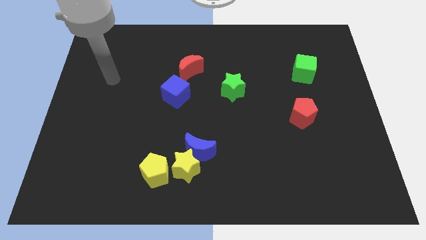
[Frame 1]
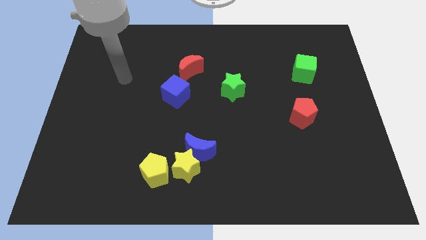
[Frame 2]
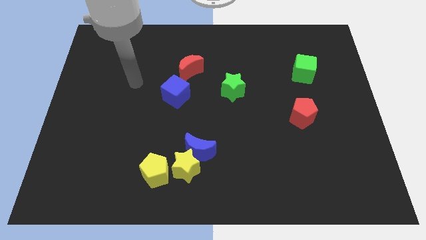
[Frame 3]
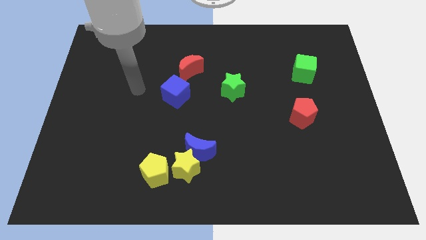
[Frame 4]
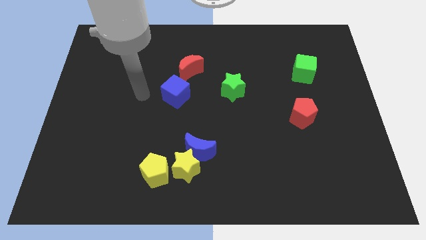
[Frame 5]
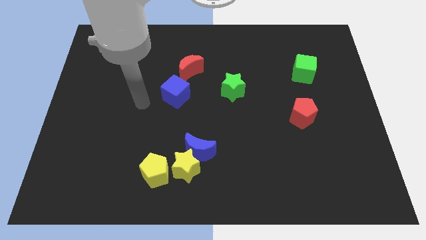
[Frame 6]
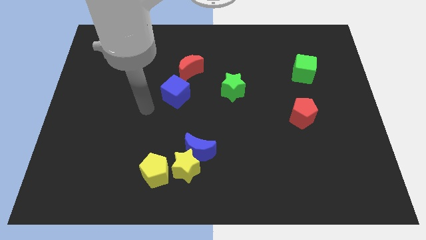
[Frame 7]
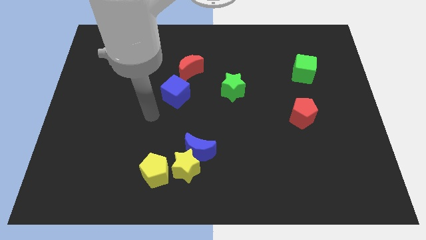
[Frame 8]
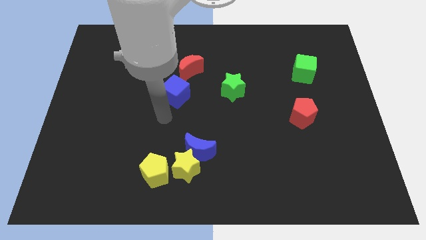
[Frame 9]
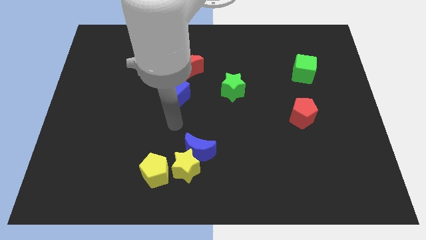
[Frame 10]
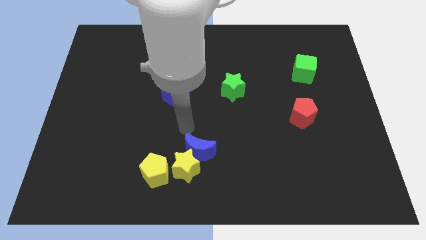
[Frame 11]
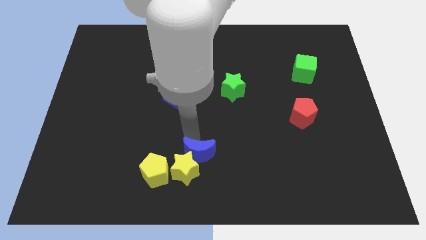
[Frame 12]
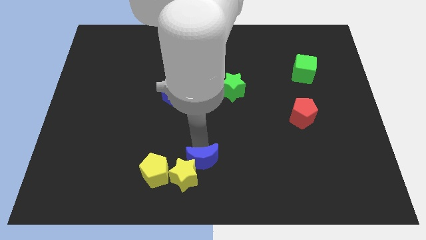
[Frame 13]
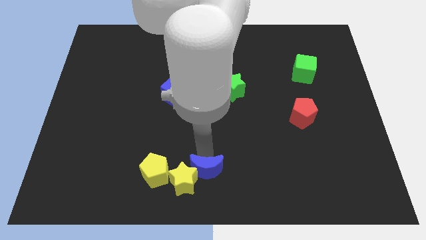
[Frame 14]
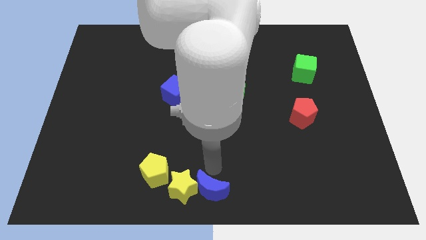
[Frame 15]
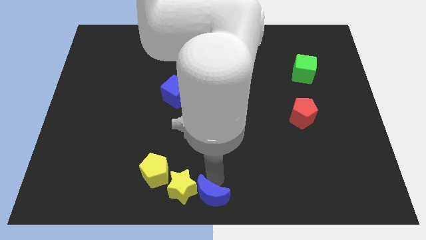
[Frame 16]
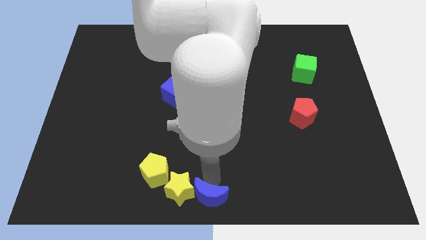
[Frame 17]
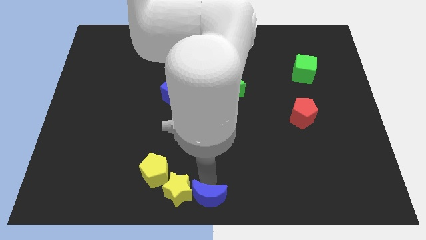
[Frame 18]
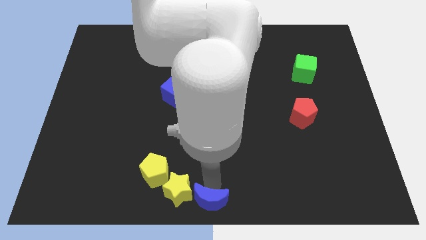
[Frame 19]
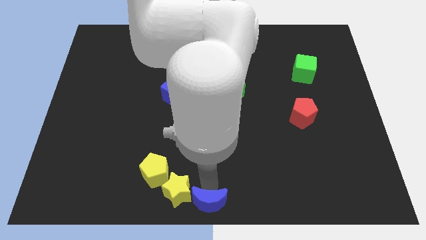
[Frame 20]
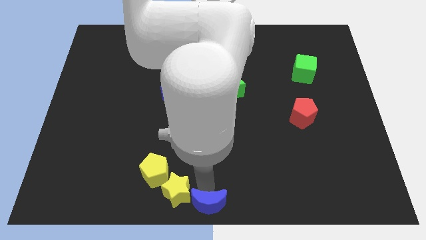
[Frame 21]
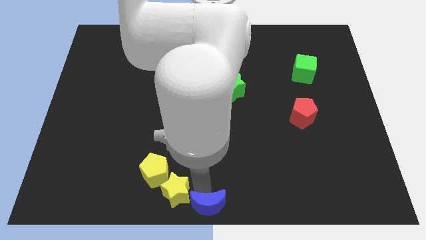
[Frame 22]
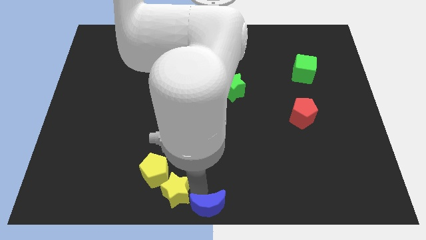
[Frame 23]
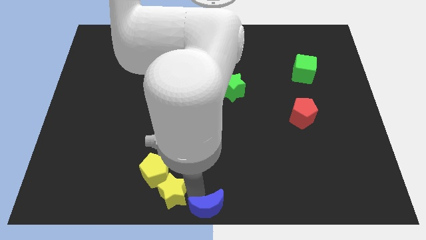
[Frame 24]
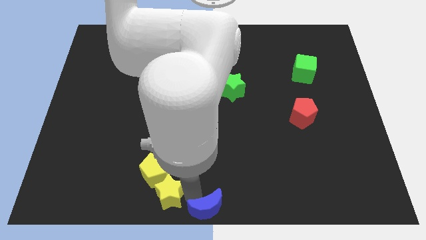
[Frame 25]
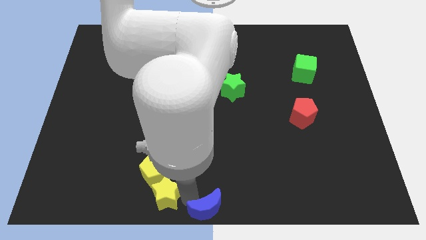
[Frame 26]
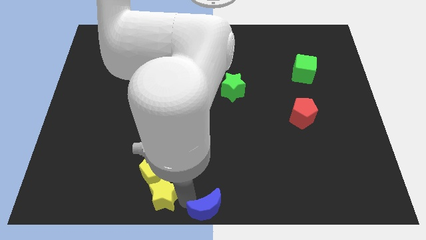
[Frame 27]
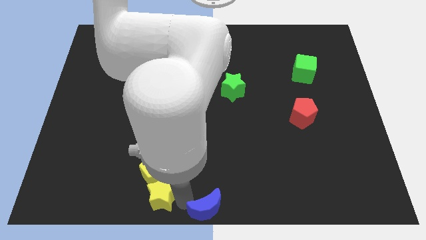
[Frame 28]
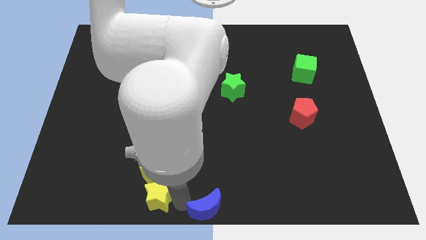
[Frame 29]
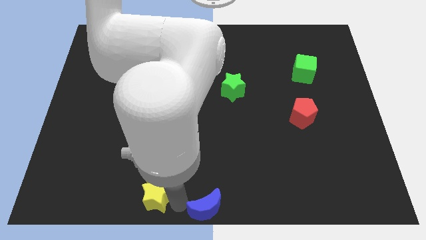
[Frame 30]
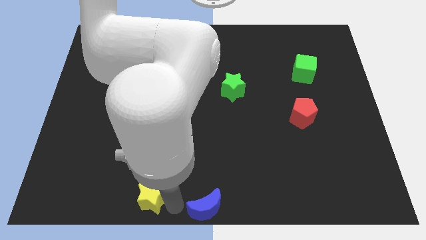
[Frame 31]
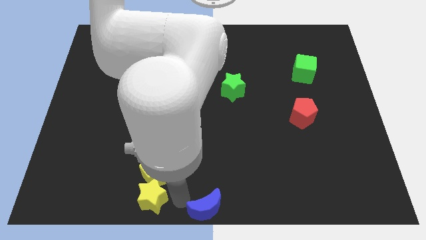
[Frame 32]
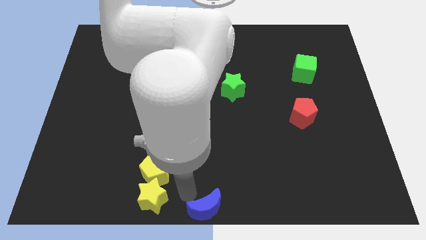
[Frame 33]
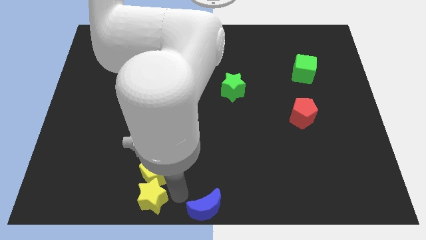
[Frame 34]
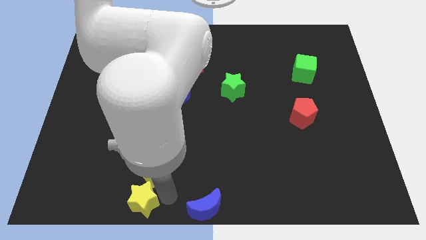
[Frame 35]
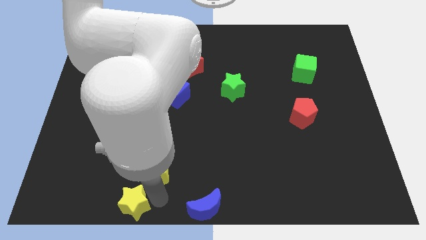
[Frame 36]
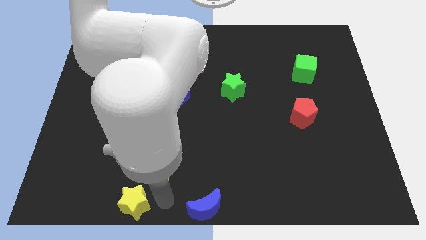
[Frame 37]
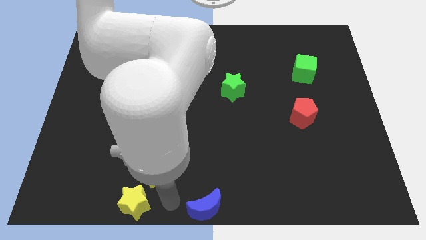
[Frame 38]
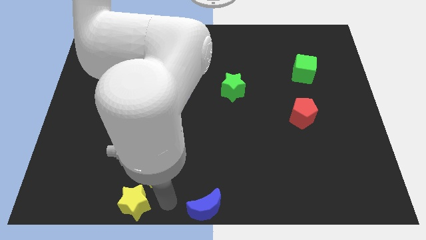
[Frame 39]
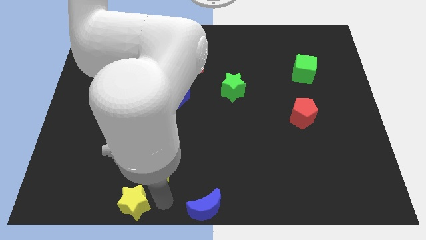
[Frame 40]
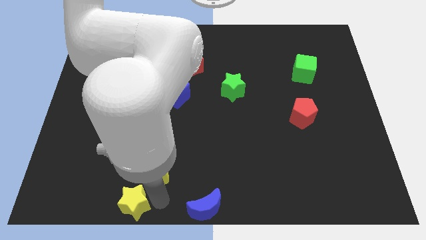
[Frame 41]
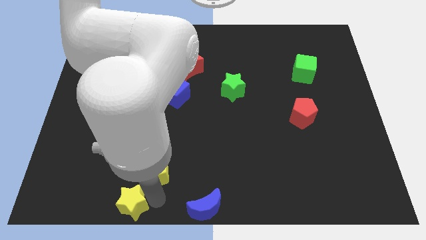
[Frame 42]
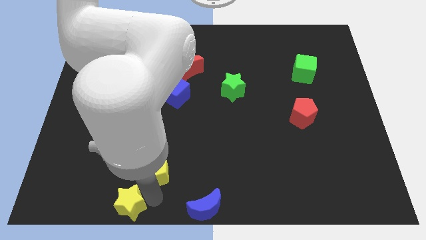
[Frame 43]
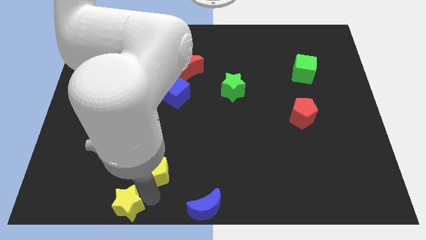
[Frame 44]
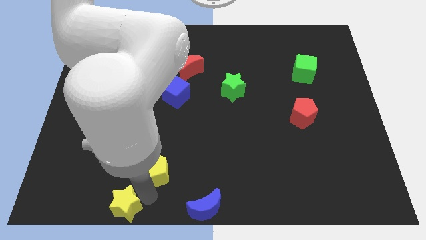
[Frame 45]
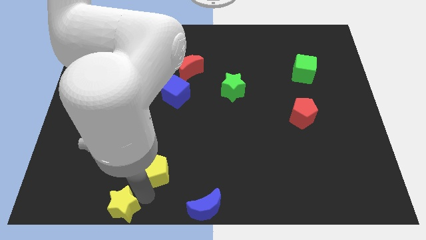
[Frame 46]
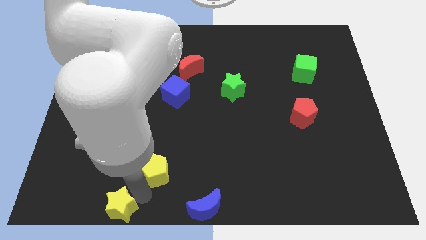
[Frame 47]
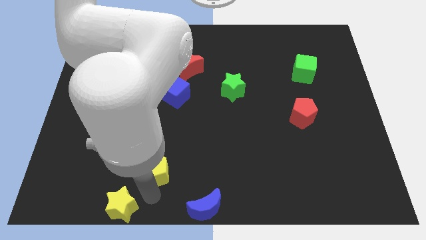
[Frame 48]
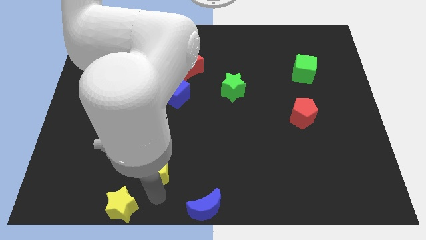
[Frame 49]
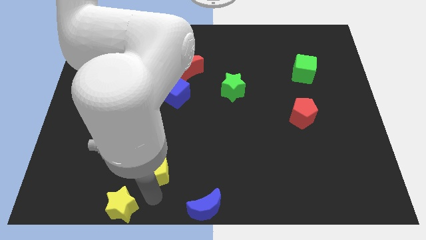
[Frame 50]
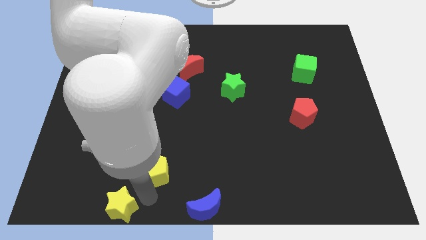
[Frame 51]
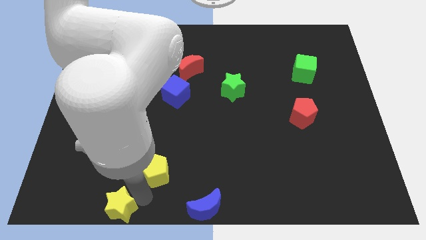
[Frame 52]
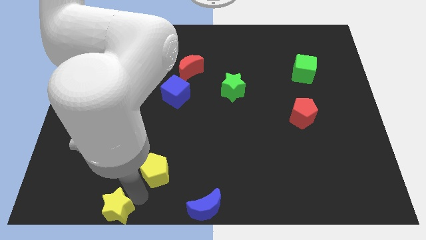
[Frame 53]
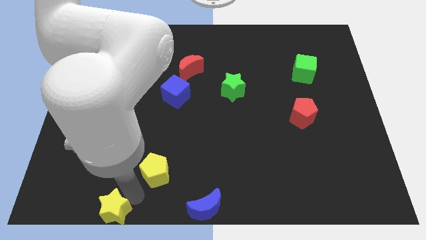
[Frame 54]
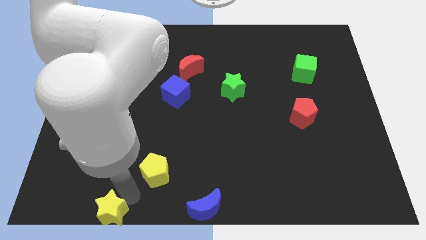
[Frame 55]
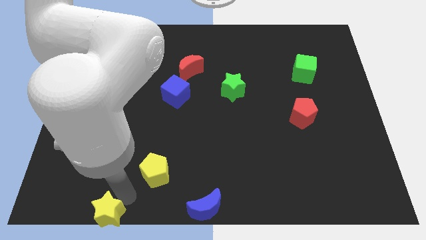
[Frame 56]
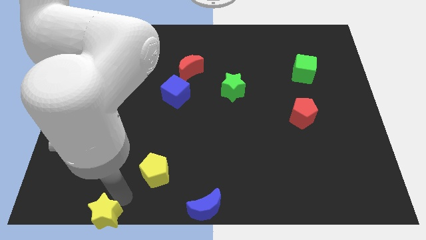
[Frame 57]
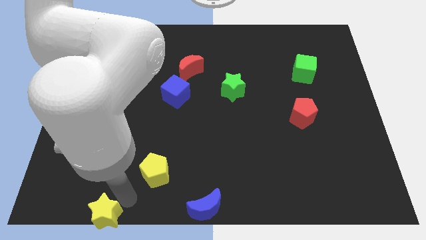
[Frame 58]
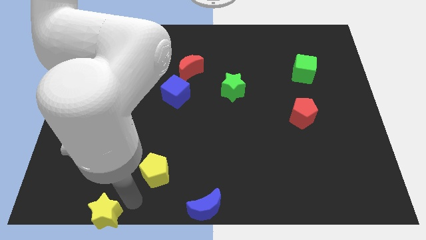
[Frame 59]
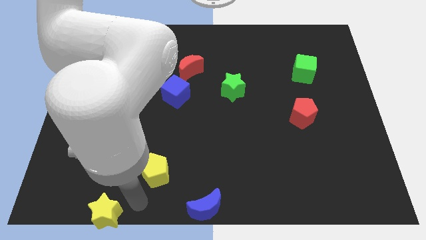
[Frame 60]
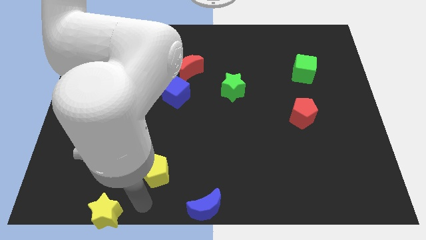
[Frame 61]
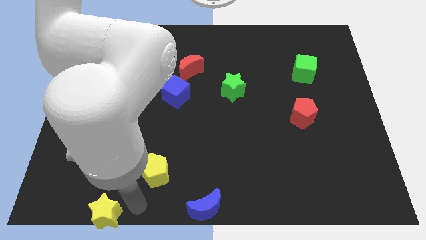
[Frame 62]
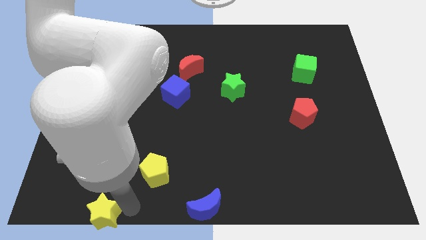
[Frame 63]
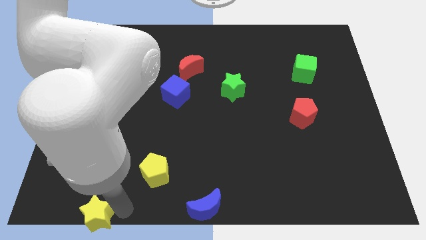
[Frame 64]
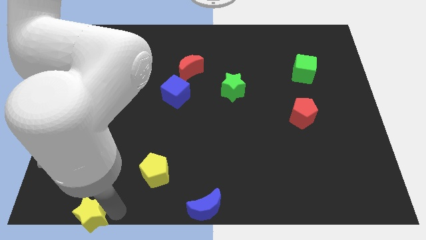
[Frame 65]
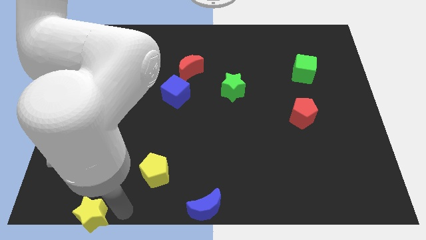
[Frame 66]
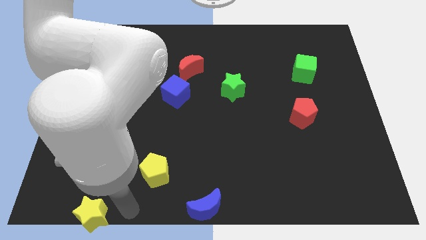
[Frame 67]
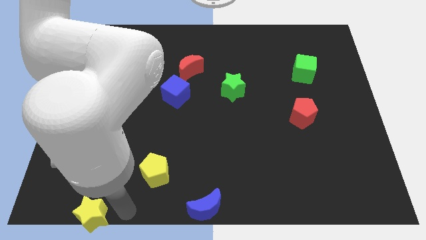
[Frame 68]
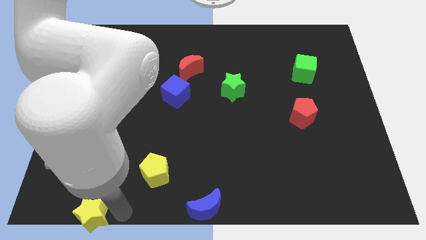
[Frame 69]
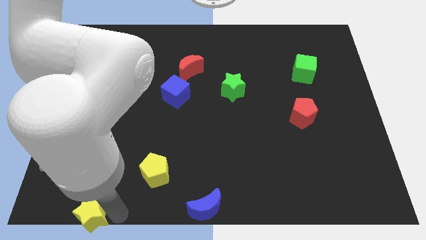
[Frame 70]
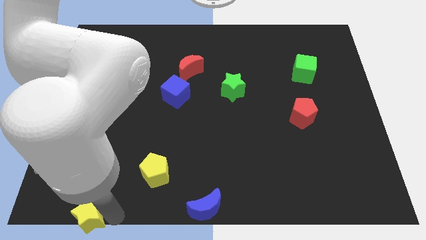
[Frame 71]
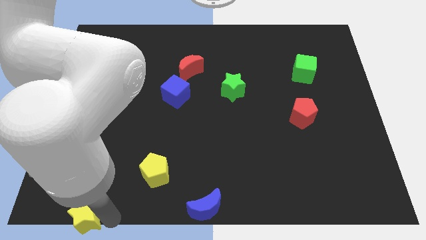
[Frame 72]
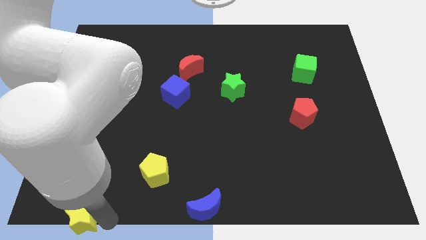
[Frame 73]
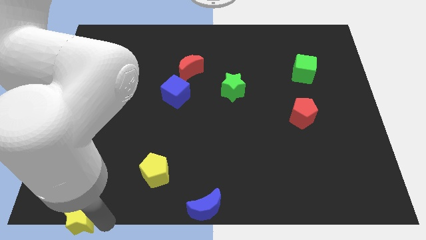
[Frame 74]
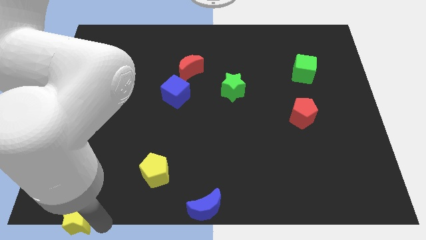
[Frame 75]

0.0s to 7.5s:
slide the yellow star to the bottom left
